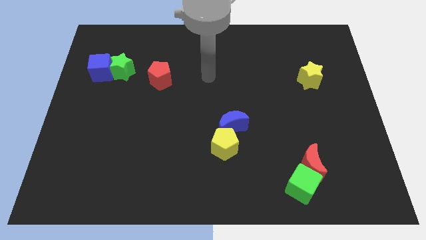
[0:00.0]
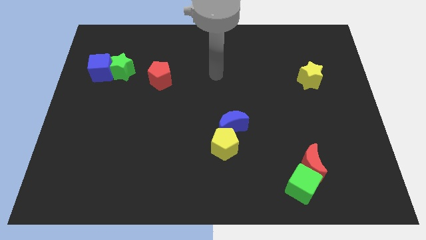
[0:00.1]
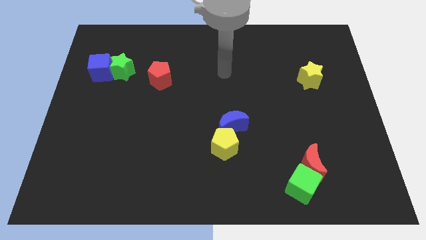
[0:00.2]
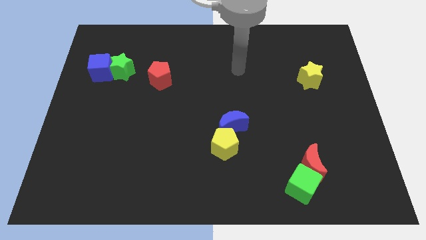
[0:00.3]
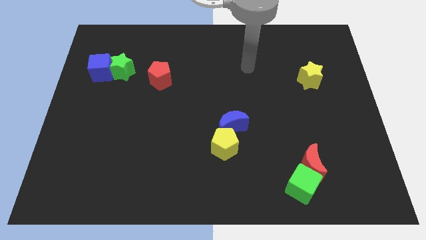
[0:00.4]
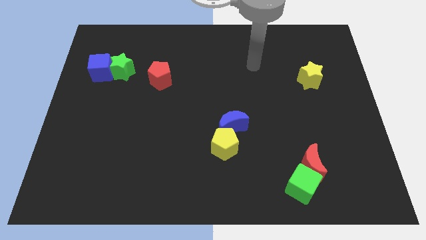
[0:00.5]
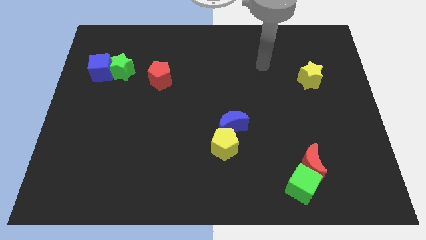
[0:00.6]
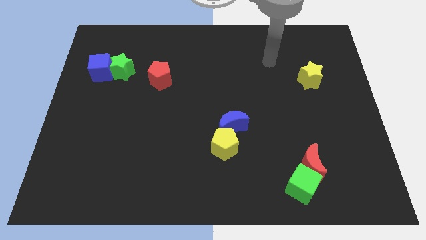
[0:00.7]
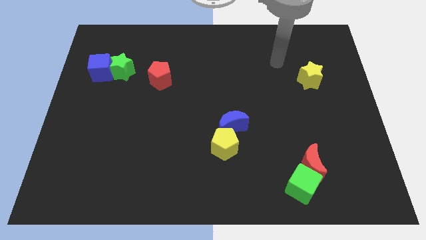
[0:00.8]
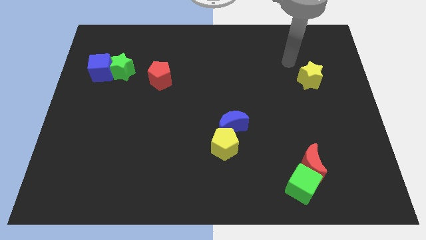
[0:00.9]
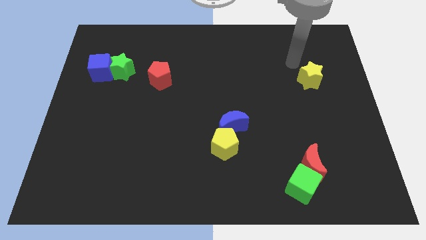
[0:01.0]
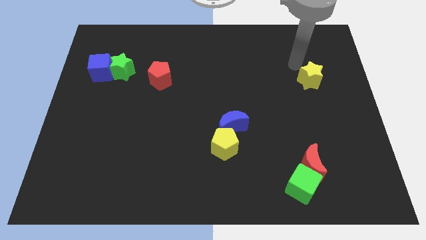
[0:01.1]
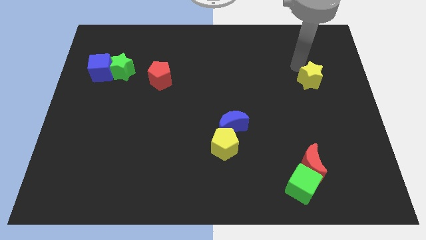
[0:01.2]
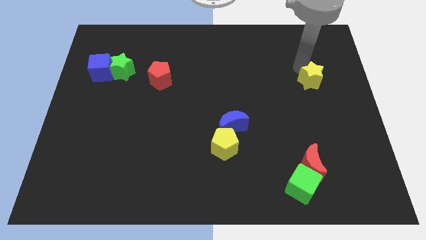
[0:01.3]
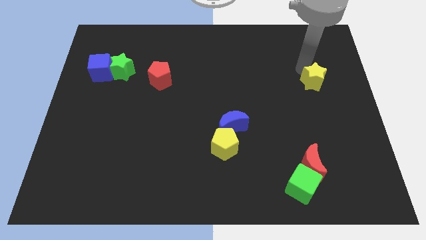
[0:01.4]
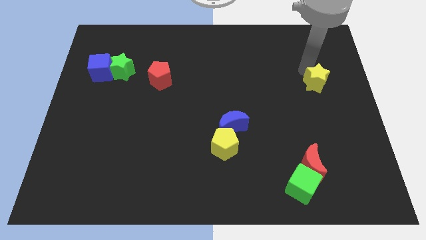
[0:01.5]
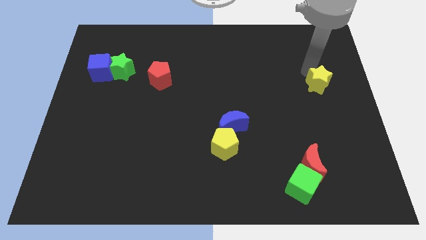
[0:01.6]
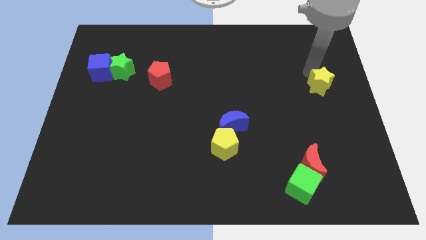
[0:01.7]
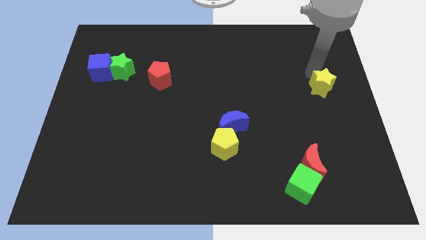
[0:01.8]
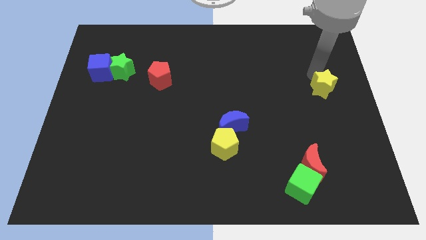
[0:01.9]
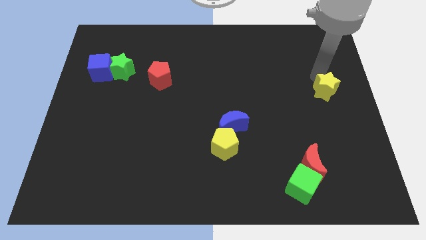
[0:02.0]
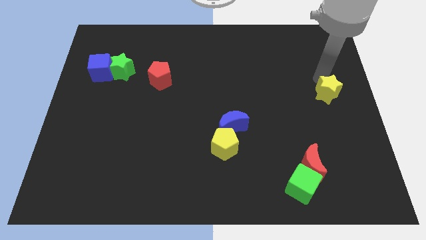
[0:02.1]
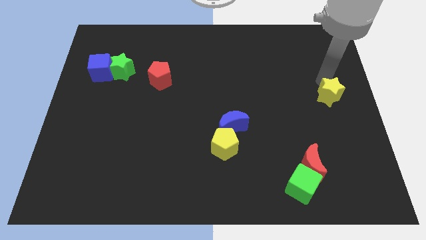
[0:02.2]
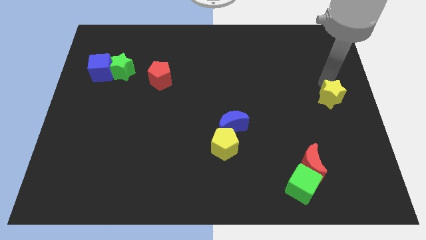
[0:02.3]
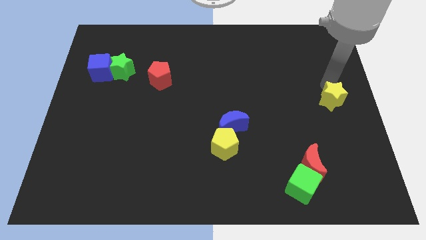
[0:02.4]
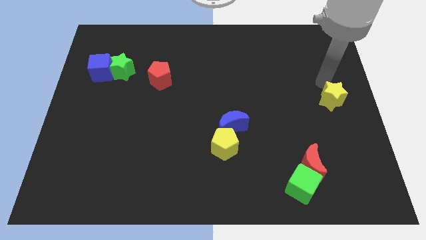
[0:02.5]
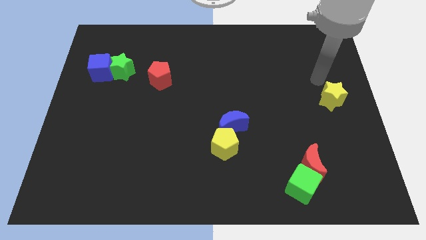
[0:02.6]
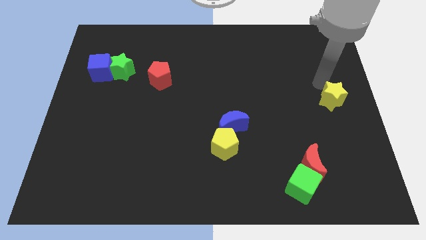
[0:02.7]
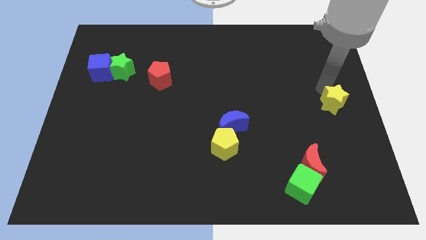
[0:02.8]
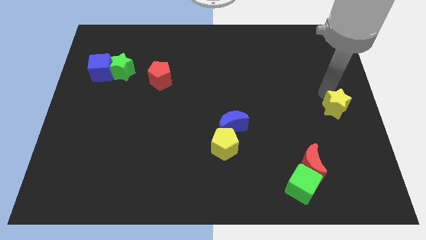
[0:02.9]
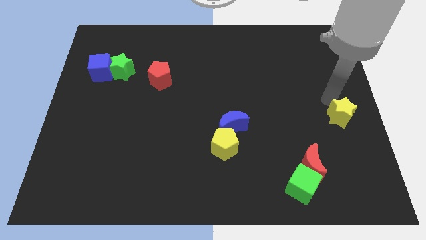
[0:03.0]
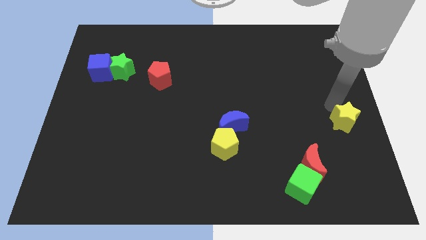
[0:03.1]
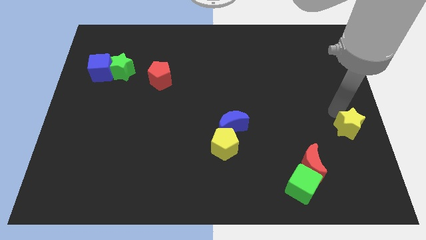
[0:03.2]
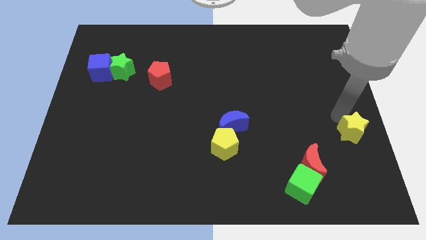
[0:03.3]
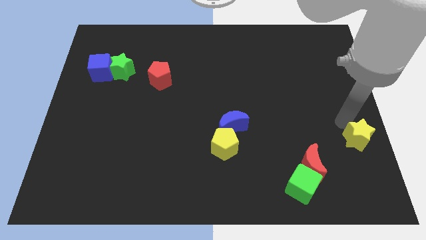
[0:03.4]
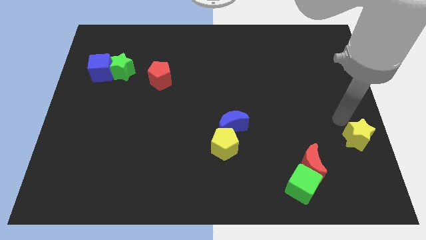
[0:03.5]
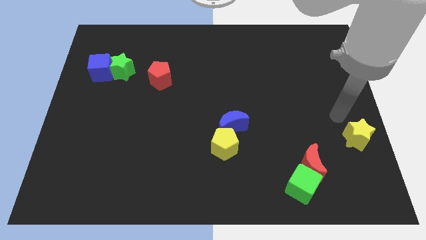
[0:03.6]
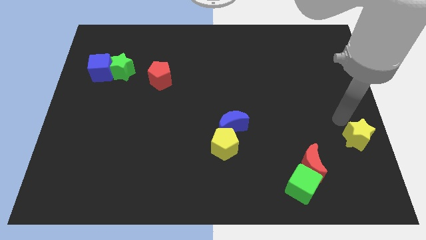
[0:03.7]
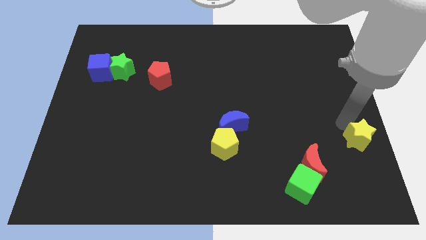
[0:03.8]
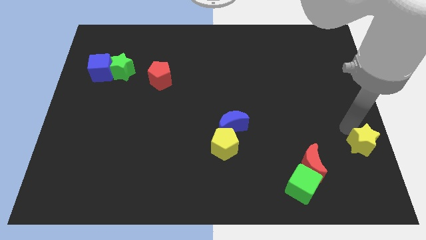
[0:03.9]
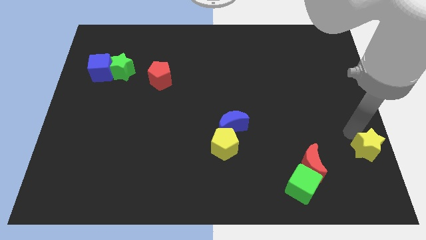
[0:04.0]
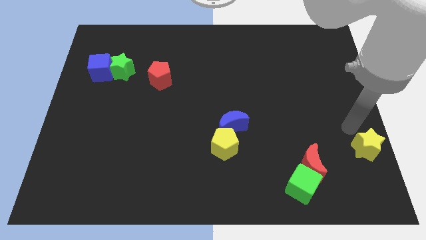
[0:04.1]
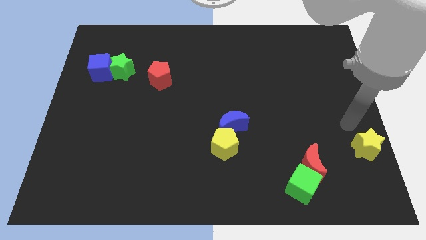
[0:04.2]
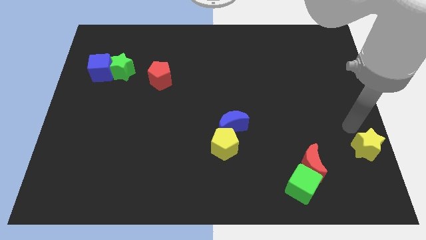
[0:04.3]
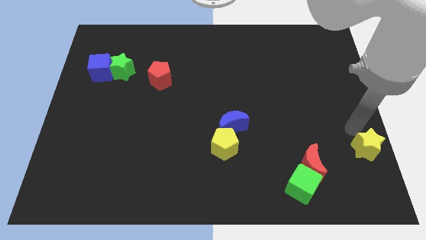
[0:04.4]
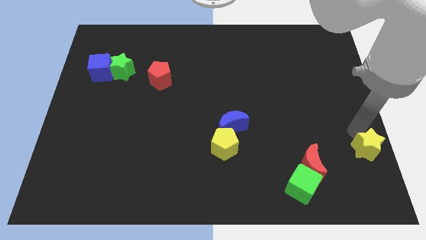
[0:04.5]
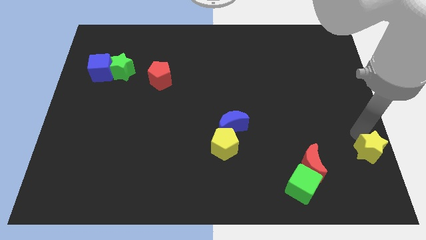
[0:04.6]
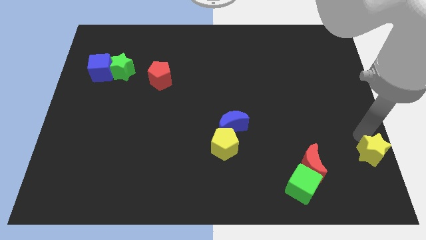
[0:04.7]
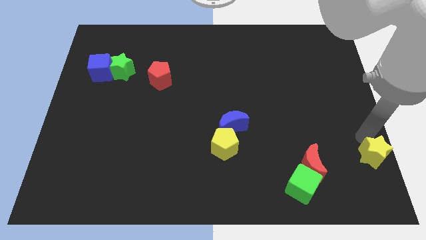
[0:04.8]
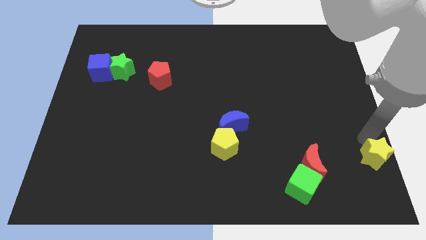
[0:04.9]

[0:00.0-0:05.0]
push the yellow star to the lower right corner

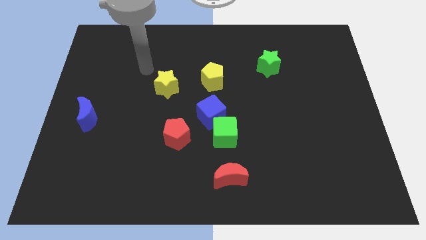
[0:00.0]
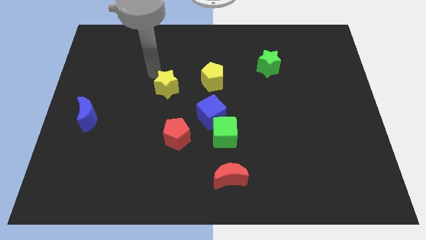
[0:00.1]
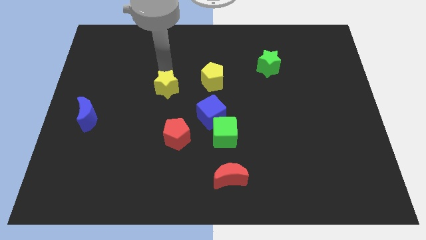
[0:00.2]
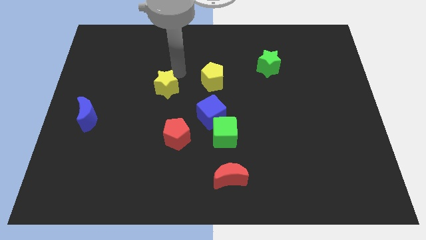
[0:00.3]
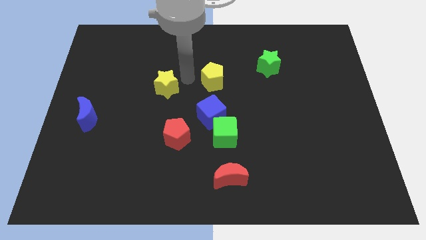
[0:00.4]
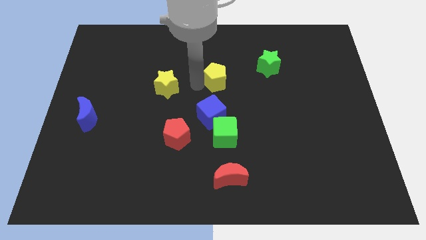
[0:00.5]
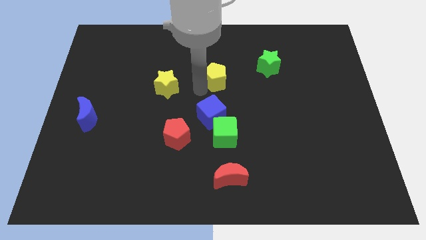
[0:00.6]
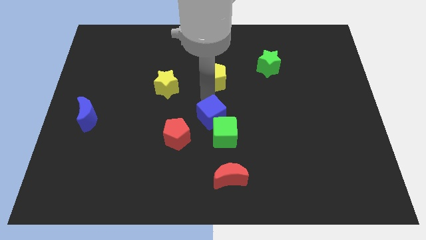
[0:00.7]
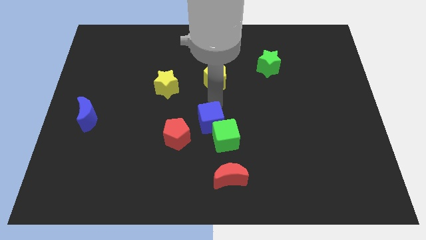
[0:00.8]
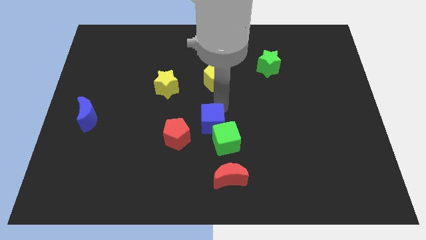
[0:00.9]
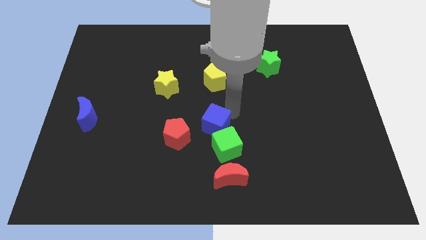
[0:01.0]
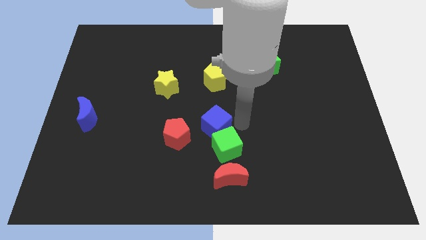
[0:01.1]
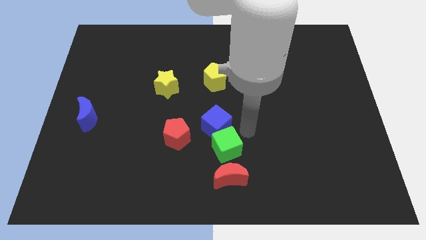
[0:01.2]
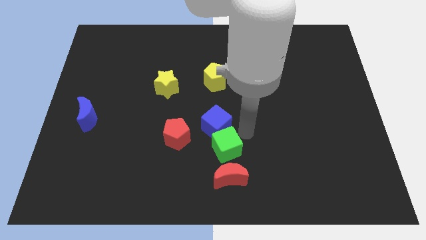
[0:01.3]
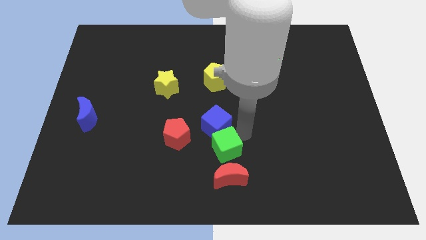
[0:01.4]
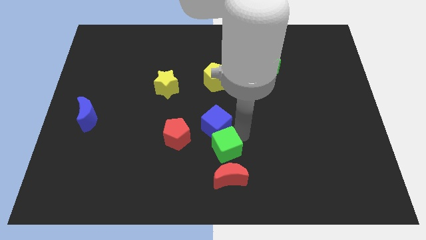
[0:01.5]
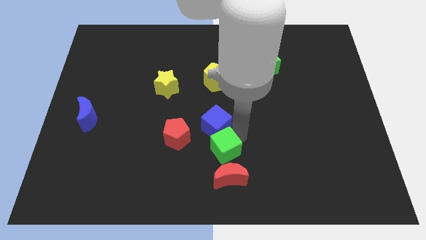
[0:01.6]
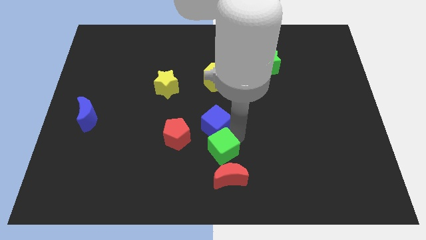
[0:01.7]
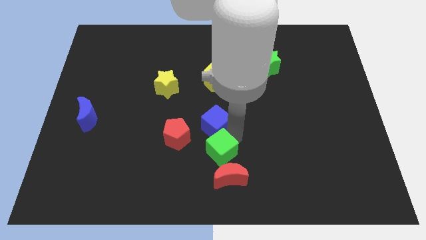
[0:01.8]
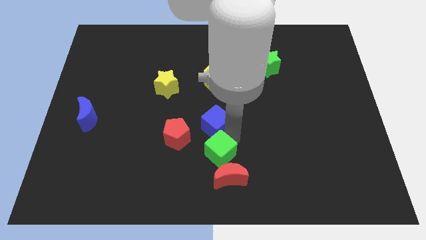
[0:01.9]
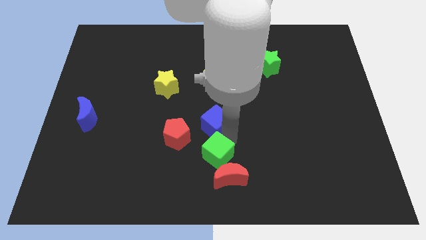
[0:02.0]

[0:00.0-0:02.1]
put the green cube to the bottom
